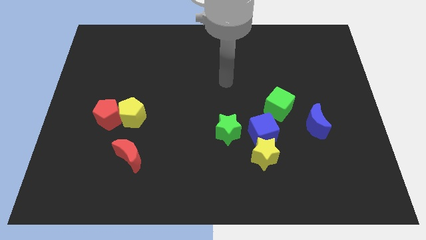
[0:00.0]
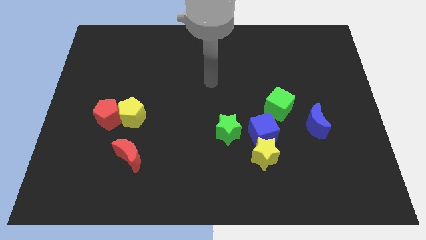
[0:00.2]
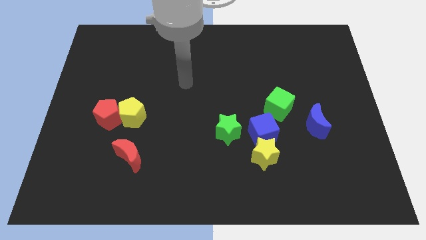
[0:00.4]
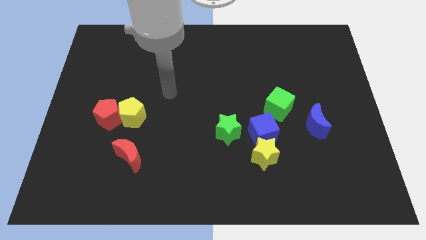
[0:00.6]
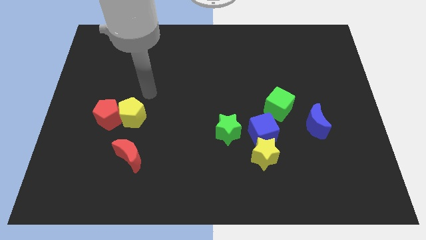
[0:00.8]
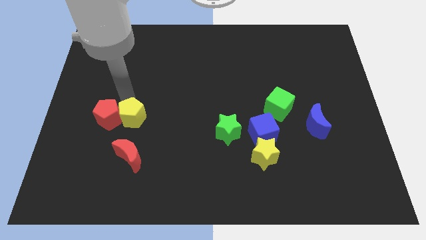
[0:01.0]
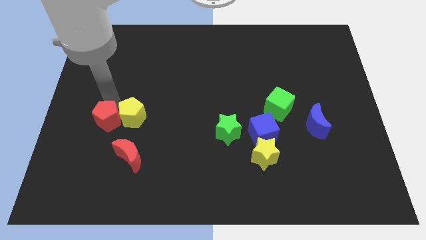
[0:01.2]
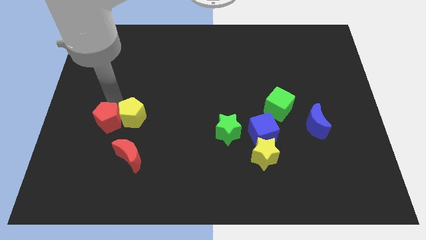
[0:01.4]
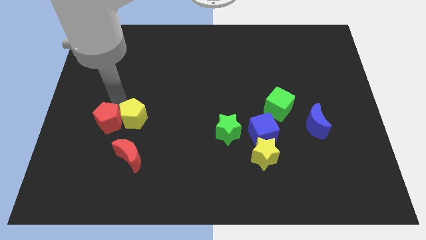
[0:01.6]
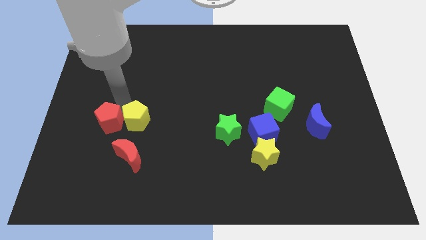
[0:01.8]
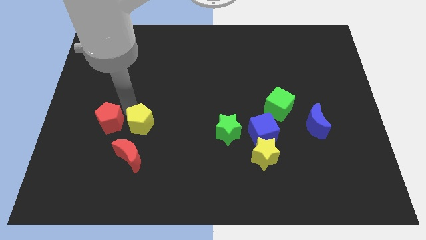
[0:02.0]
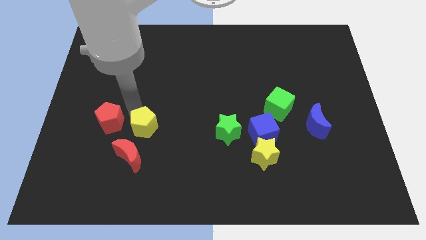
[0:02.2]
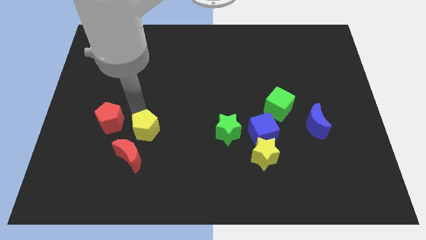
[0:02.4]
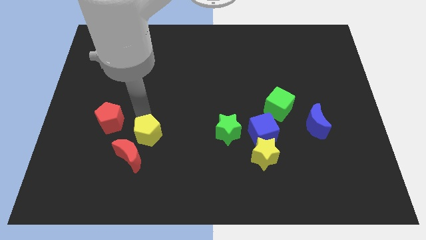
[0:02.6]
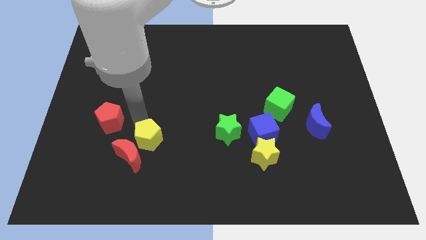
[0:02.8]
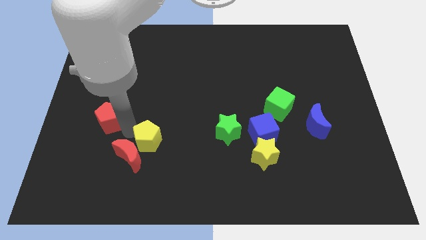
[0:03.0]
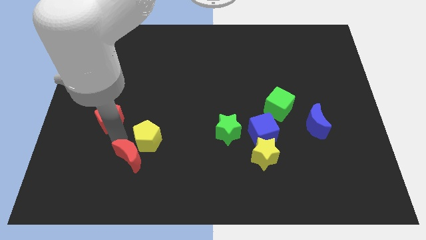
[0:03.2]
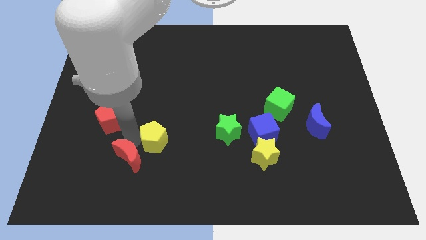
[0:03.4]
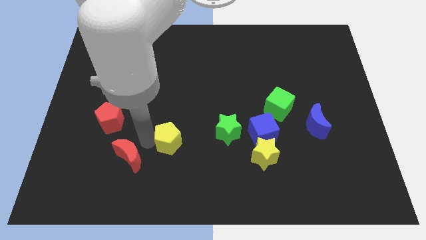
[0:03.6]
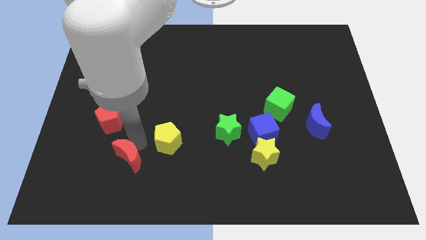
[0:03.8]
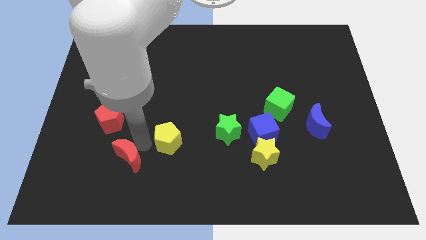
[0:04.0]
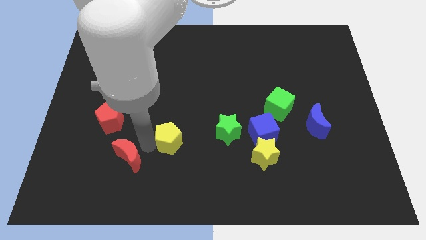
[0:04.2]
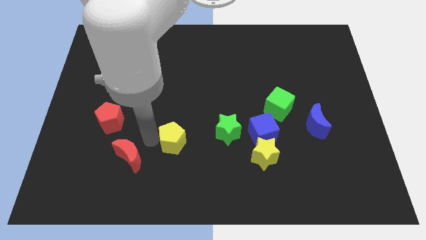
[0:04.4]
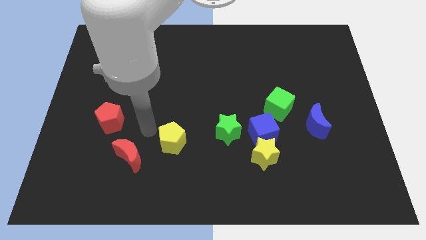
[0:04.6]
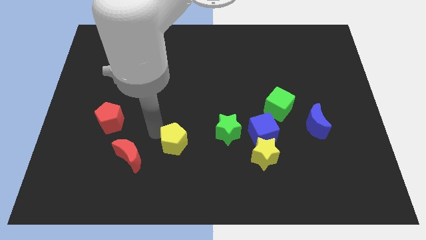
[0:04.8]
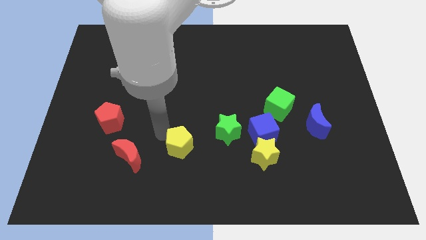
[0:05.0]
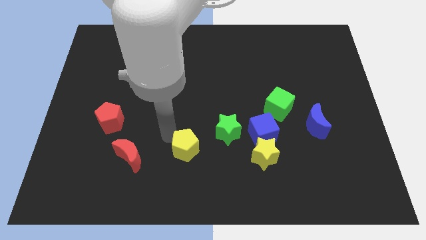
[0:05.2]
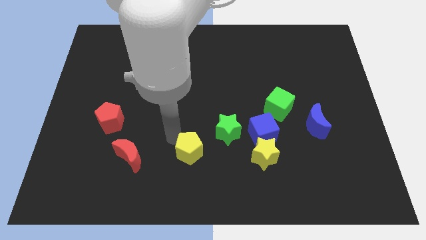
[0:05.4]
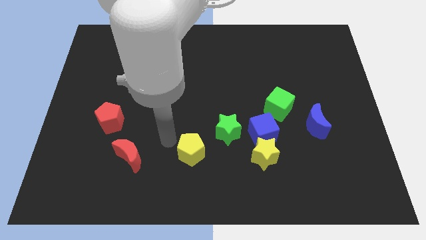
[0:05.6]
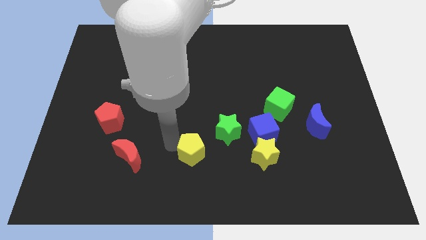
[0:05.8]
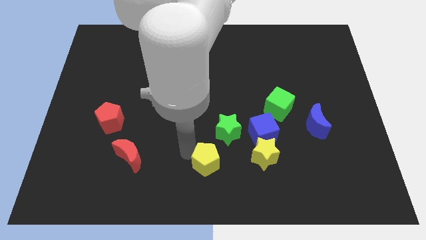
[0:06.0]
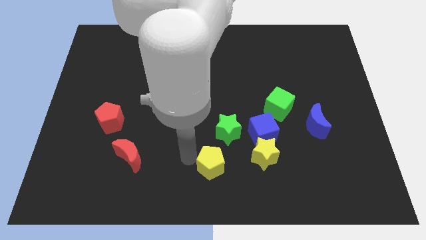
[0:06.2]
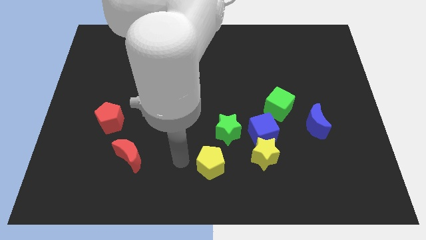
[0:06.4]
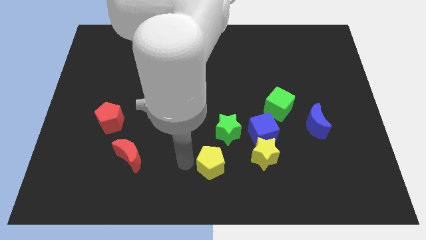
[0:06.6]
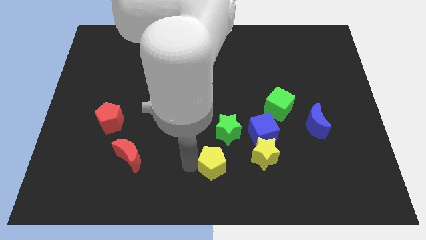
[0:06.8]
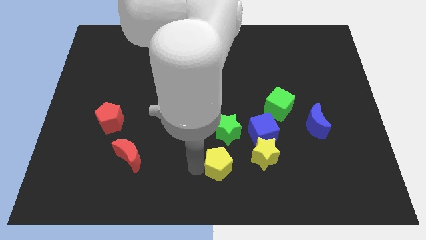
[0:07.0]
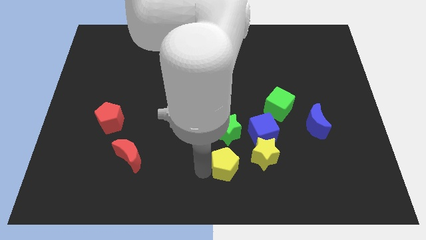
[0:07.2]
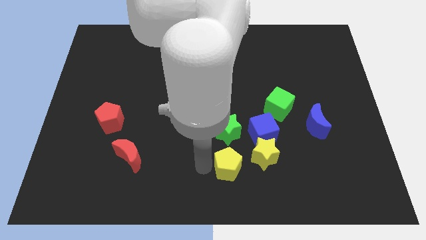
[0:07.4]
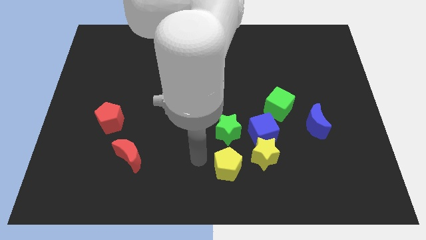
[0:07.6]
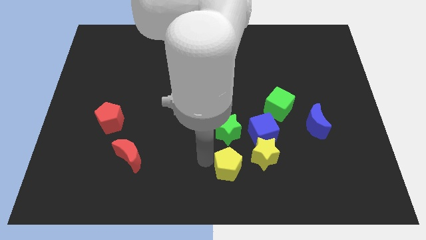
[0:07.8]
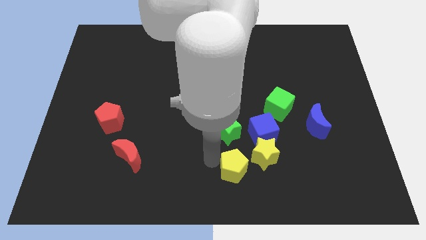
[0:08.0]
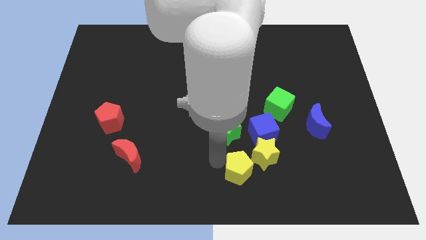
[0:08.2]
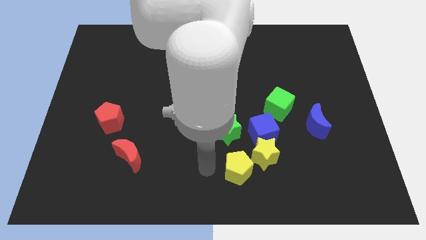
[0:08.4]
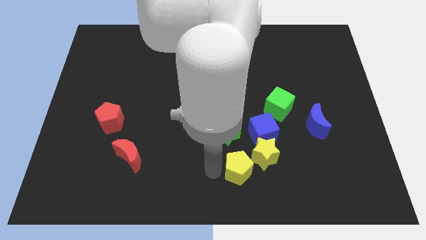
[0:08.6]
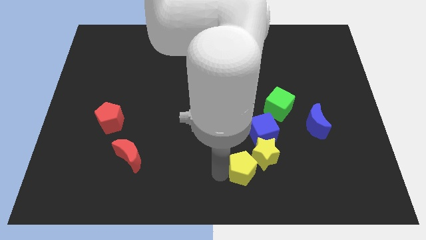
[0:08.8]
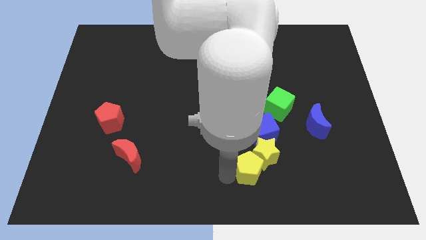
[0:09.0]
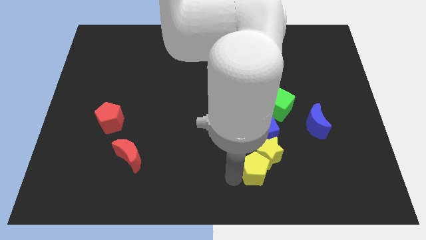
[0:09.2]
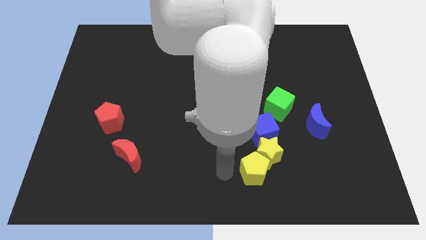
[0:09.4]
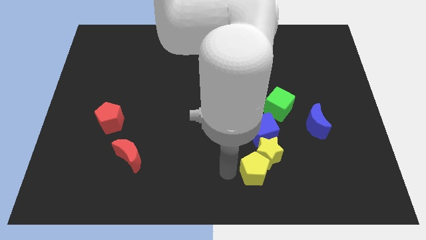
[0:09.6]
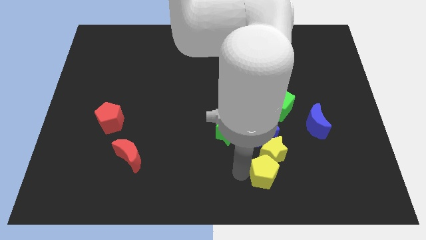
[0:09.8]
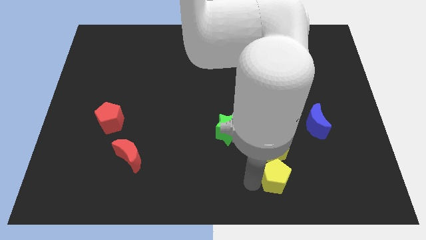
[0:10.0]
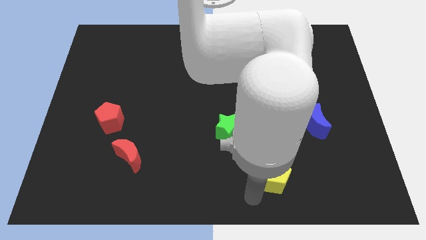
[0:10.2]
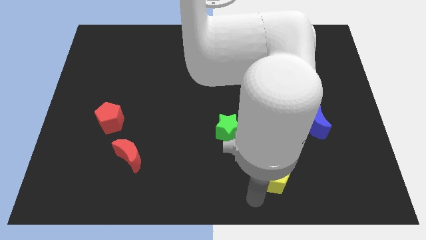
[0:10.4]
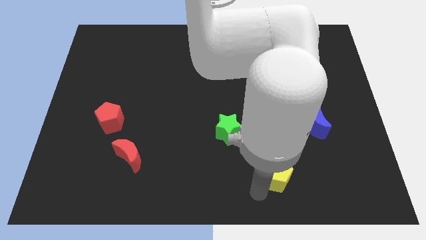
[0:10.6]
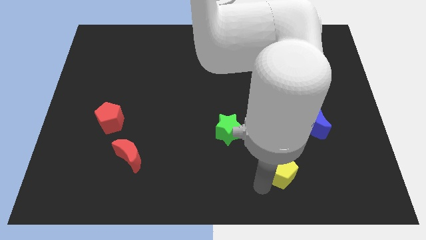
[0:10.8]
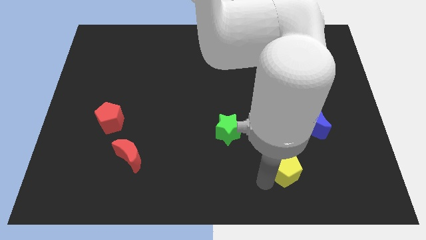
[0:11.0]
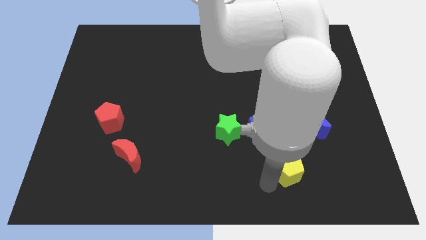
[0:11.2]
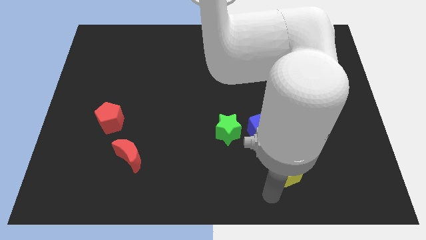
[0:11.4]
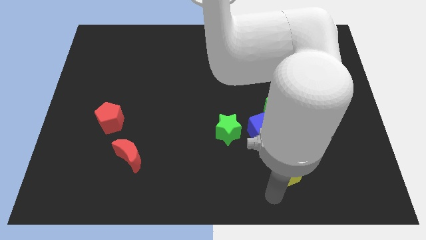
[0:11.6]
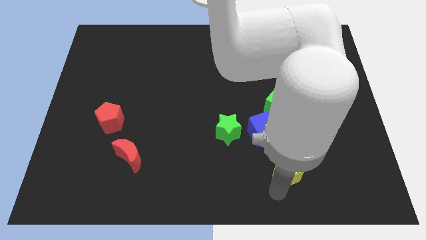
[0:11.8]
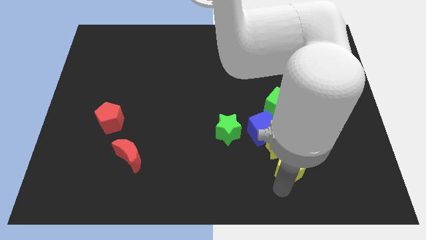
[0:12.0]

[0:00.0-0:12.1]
push the yellow pentagon below the green cube

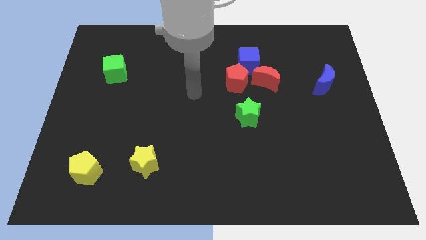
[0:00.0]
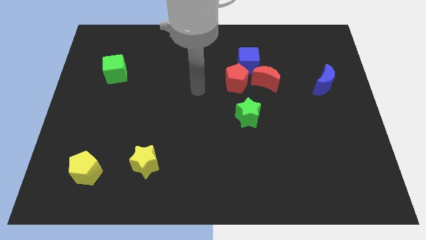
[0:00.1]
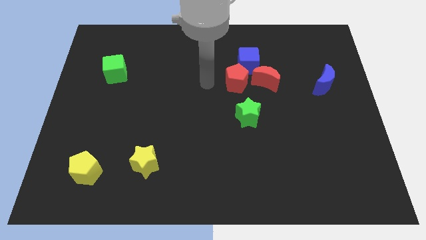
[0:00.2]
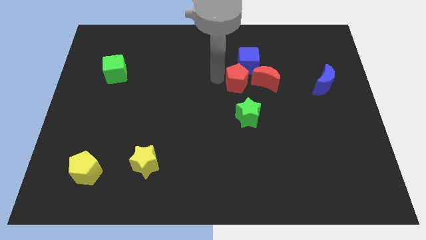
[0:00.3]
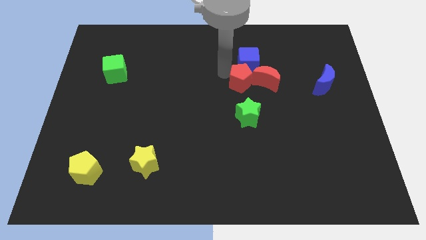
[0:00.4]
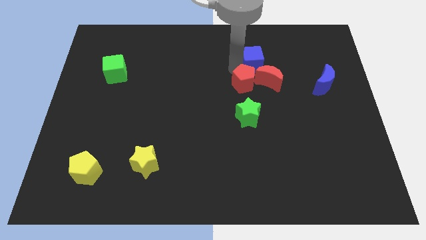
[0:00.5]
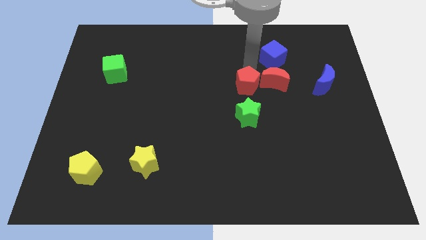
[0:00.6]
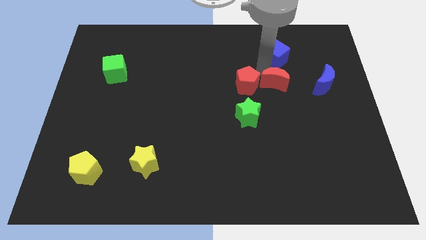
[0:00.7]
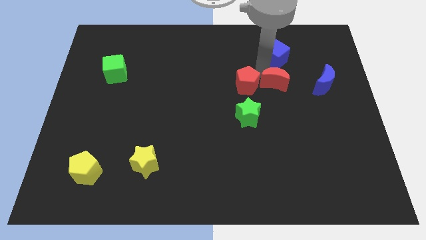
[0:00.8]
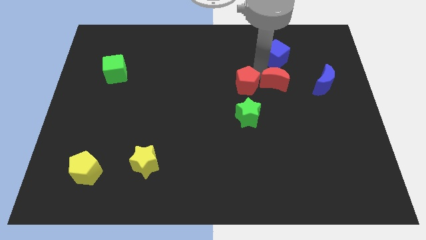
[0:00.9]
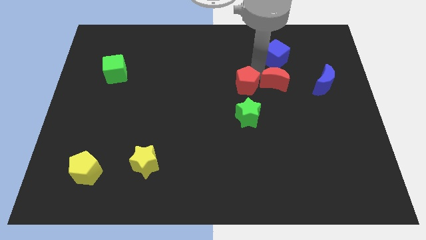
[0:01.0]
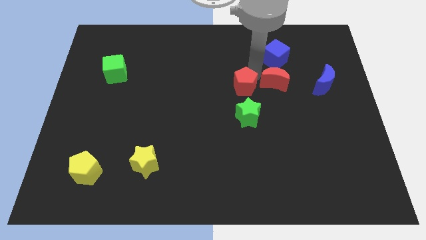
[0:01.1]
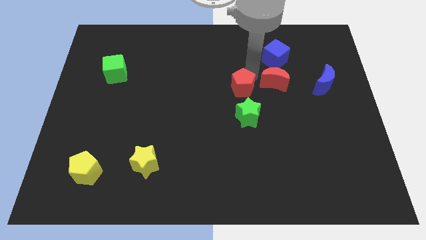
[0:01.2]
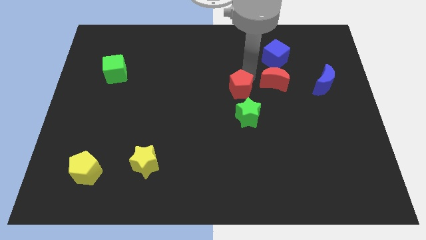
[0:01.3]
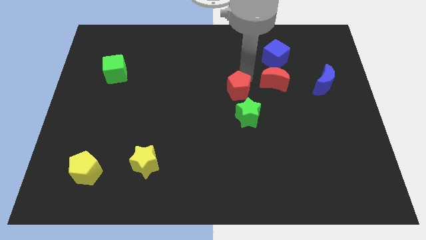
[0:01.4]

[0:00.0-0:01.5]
slide the red pentagon diagonally up and to the left of the green star
